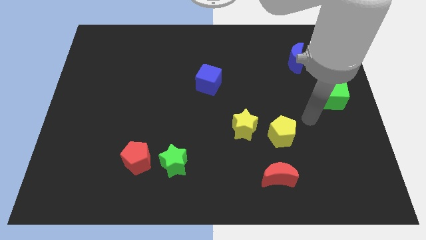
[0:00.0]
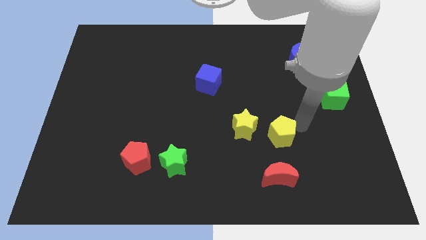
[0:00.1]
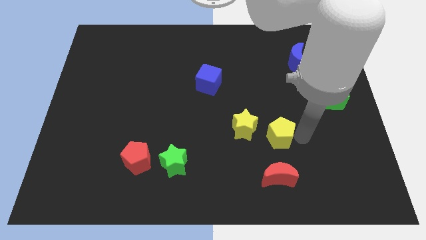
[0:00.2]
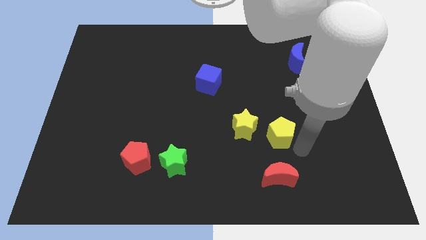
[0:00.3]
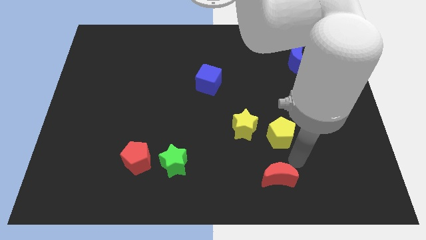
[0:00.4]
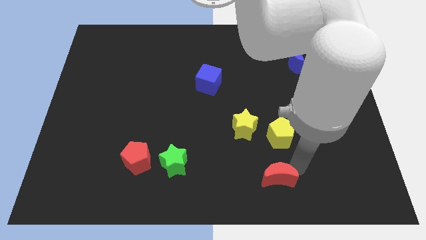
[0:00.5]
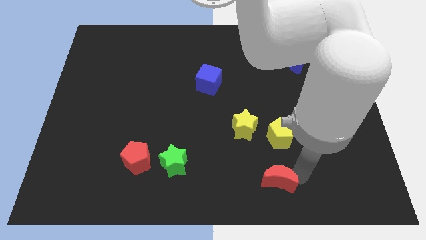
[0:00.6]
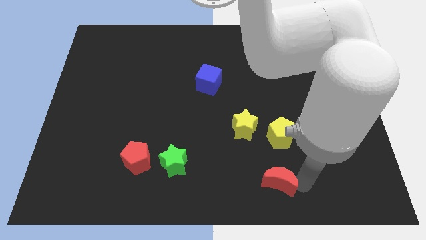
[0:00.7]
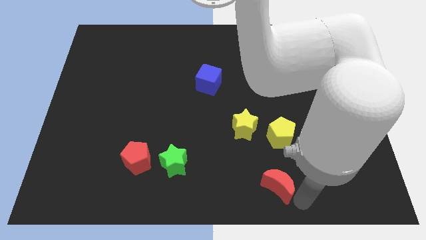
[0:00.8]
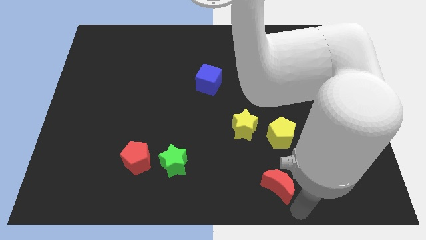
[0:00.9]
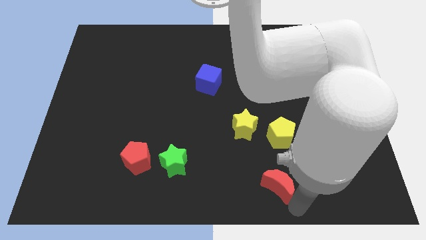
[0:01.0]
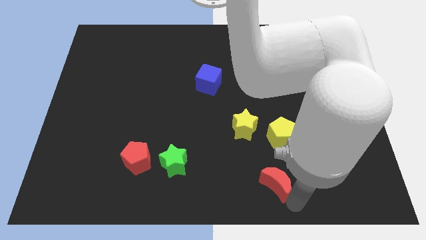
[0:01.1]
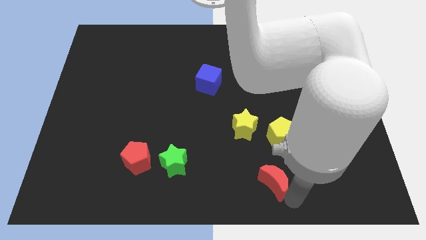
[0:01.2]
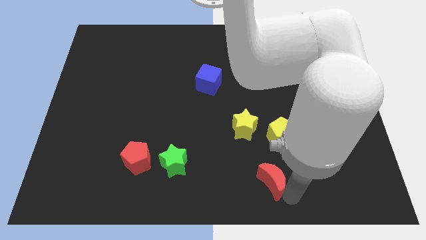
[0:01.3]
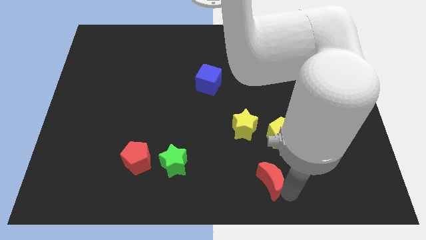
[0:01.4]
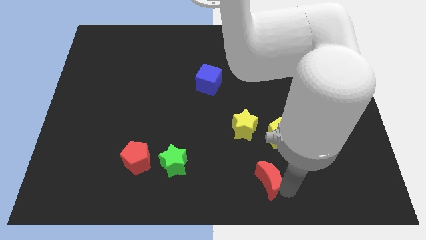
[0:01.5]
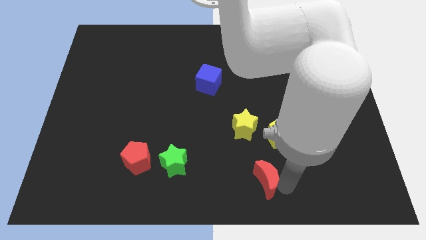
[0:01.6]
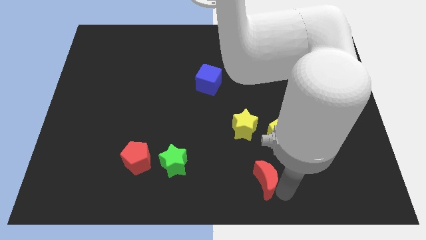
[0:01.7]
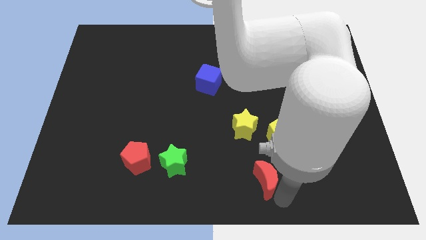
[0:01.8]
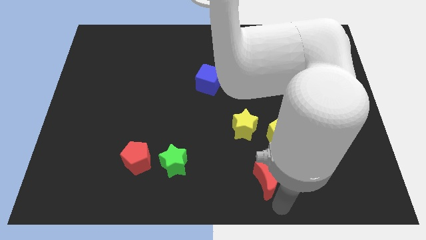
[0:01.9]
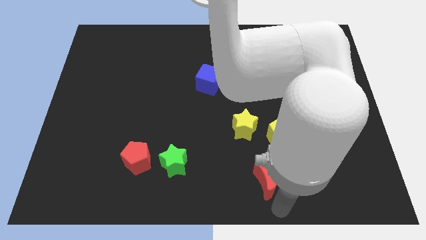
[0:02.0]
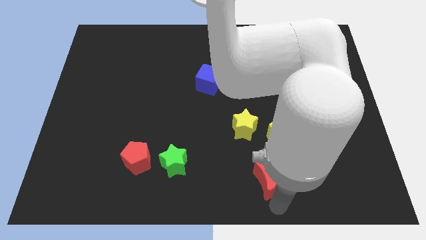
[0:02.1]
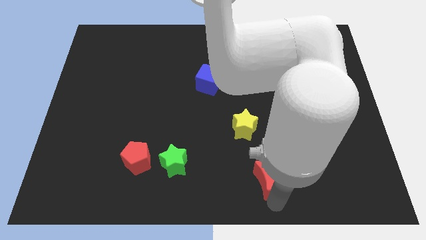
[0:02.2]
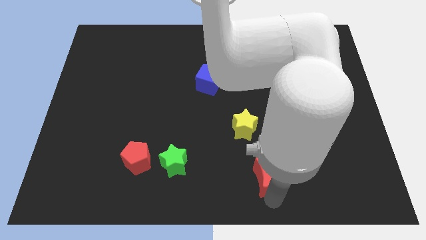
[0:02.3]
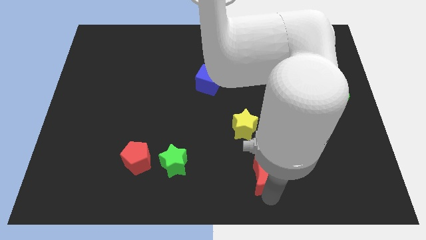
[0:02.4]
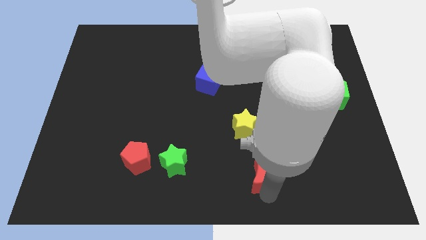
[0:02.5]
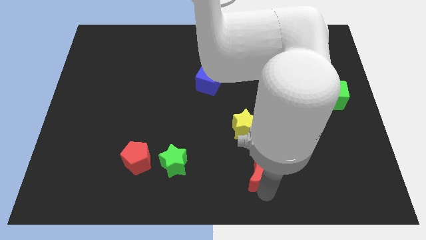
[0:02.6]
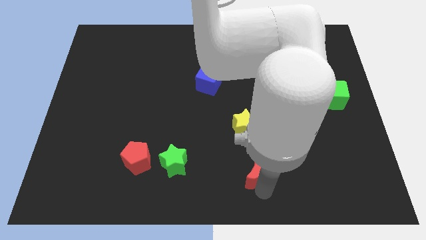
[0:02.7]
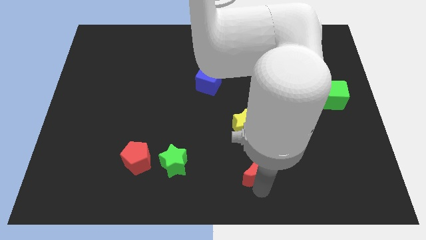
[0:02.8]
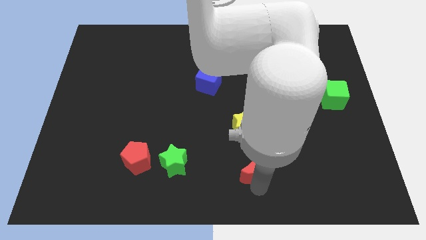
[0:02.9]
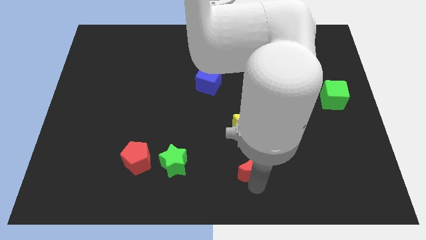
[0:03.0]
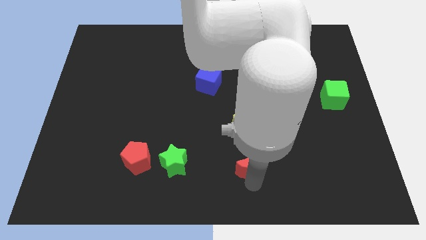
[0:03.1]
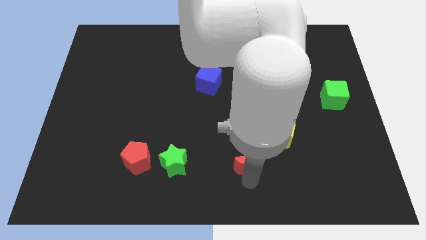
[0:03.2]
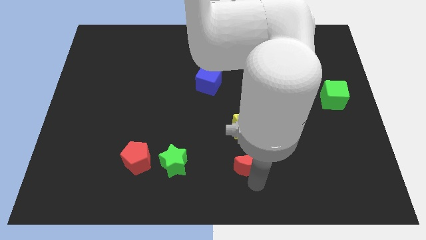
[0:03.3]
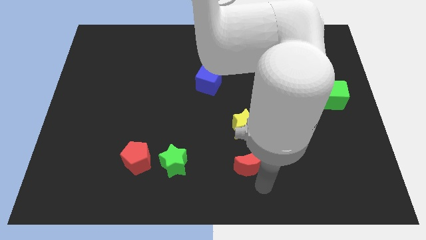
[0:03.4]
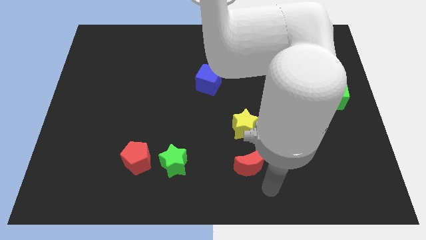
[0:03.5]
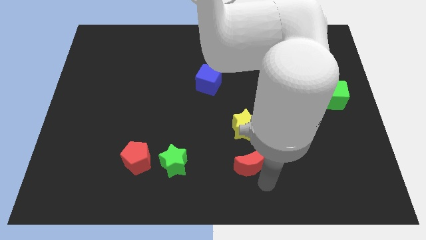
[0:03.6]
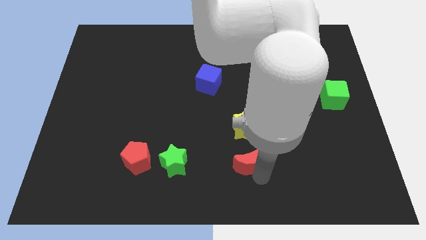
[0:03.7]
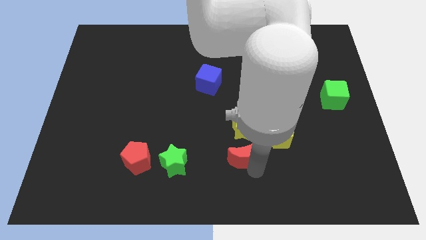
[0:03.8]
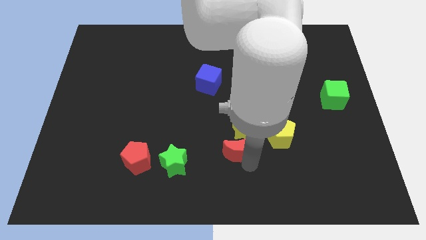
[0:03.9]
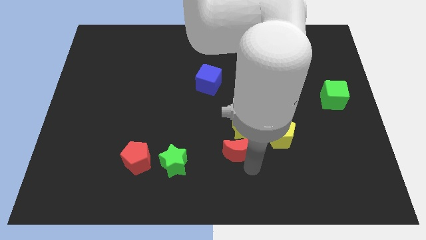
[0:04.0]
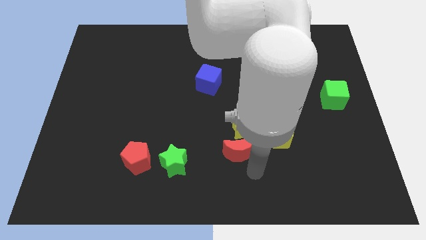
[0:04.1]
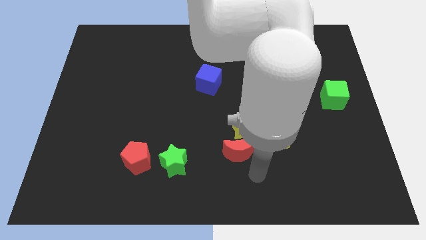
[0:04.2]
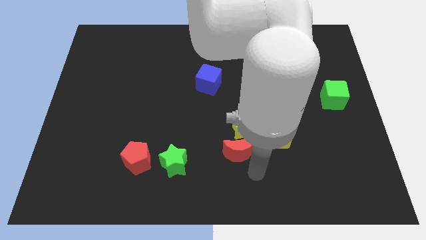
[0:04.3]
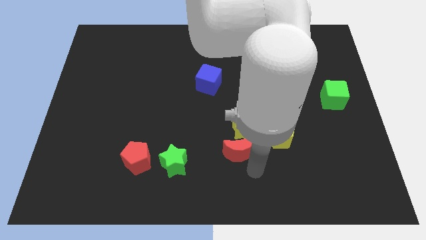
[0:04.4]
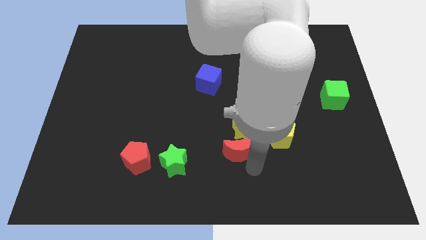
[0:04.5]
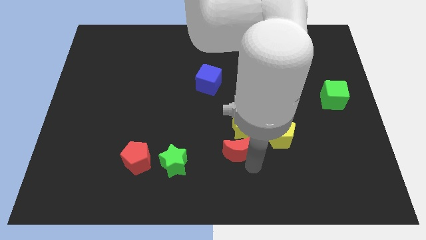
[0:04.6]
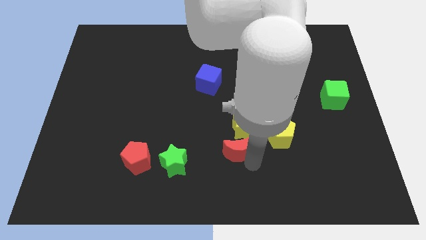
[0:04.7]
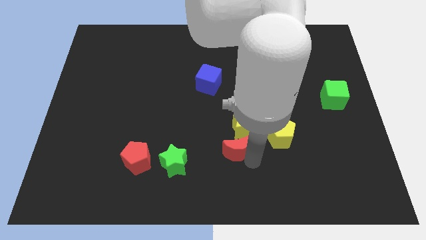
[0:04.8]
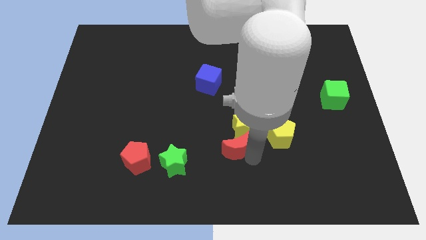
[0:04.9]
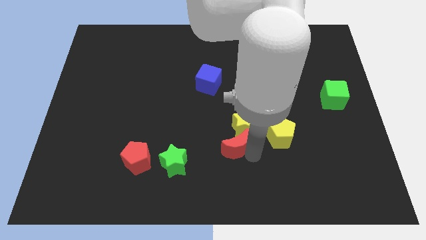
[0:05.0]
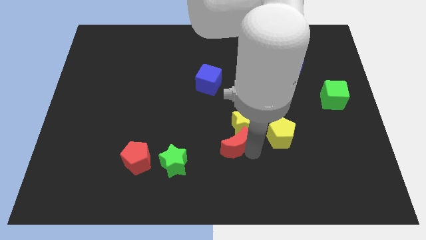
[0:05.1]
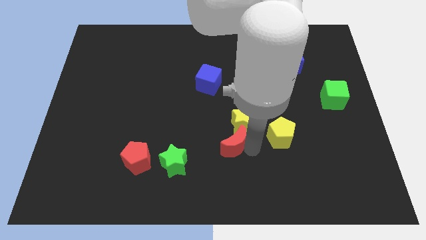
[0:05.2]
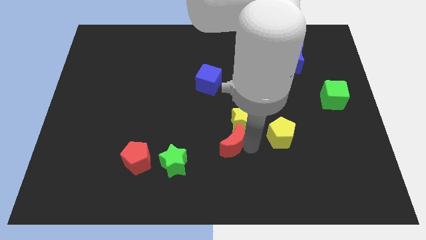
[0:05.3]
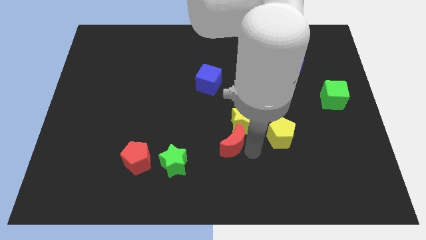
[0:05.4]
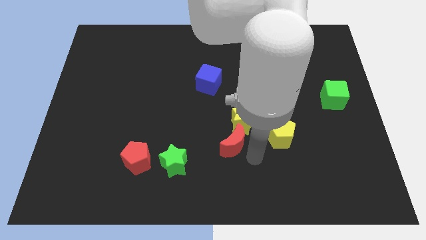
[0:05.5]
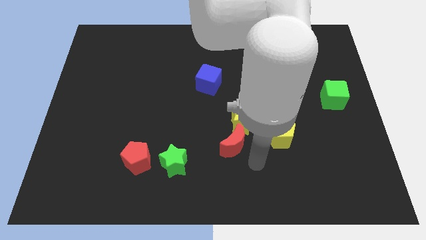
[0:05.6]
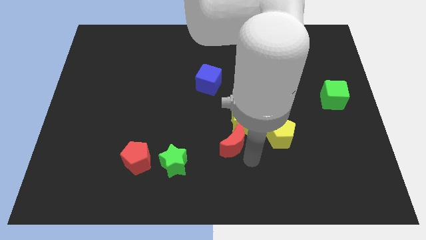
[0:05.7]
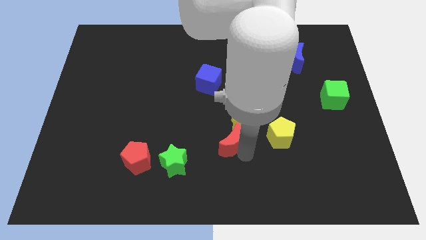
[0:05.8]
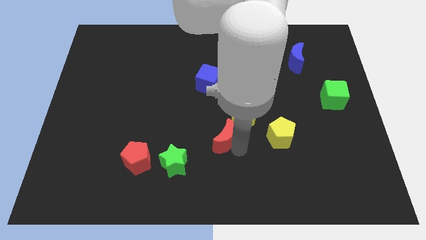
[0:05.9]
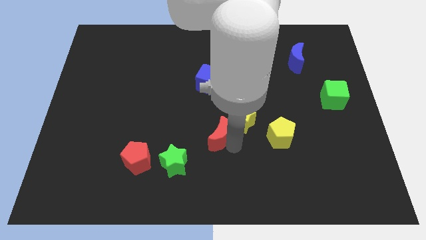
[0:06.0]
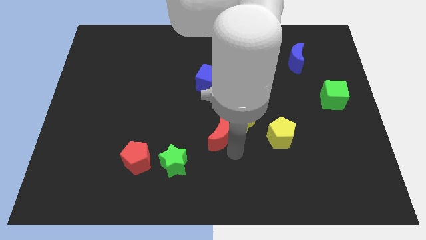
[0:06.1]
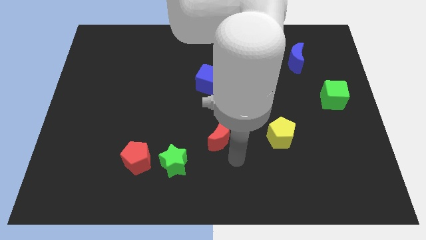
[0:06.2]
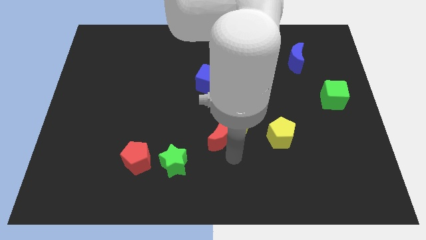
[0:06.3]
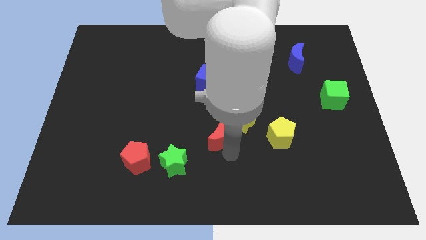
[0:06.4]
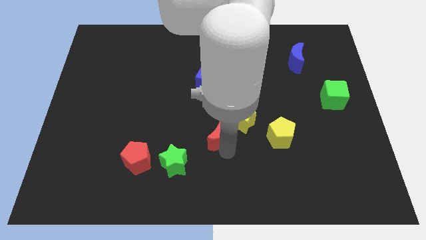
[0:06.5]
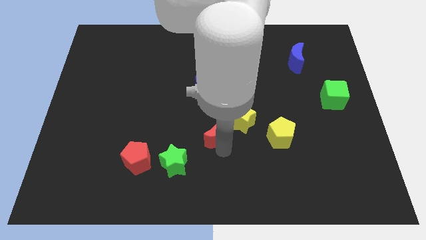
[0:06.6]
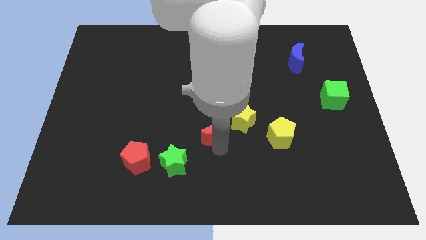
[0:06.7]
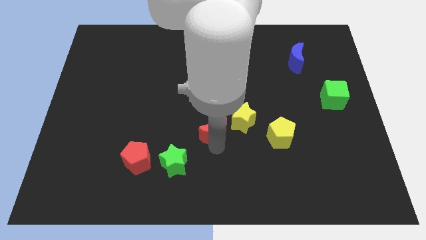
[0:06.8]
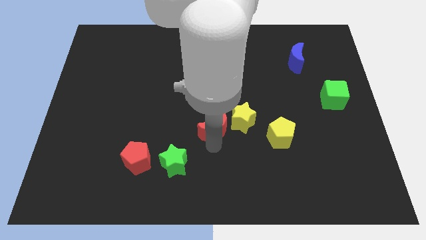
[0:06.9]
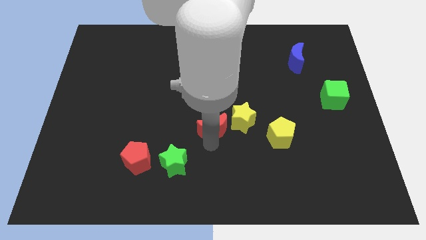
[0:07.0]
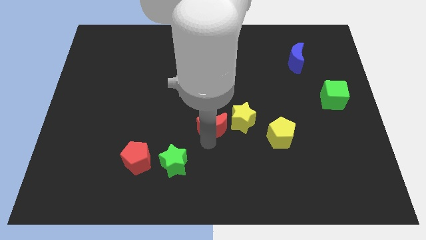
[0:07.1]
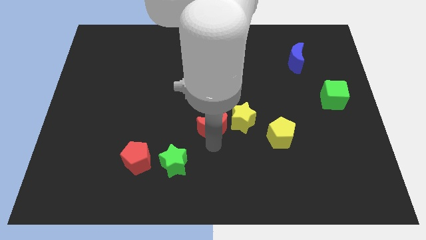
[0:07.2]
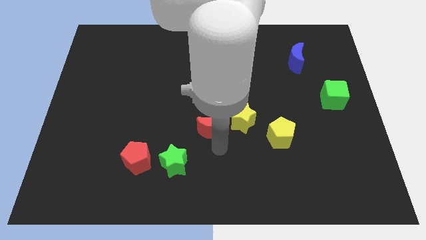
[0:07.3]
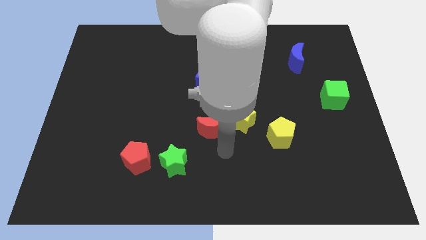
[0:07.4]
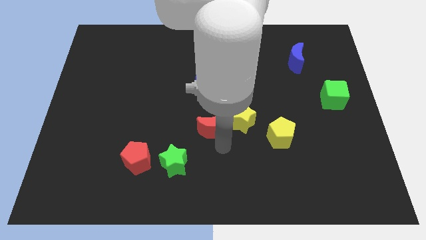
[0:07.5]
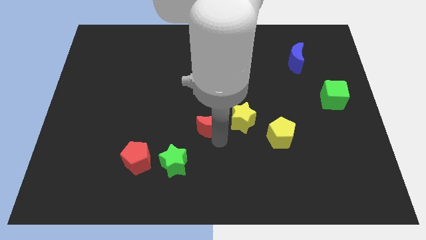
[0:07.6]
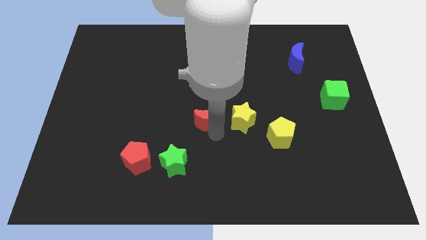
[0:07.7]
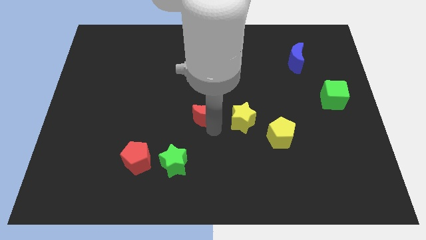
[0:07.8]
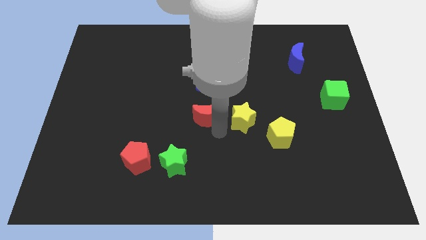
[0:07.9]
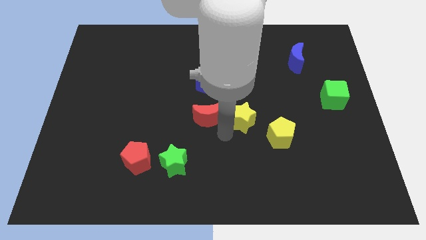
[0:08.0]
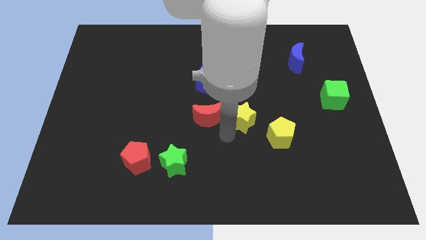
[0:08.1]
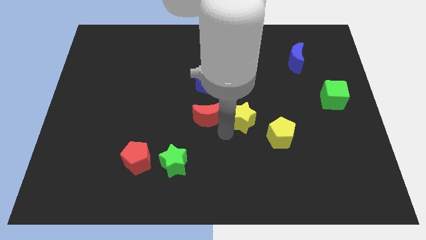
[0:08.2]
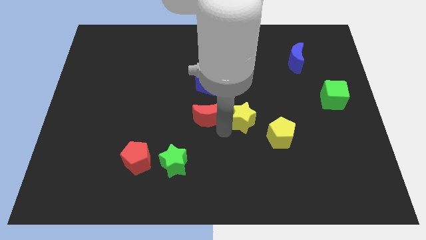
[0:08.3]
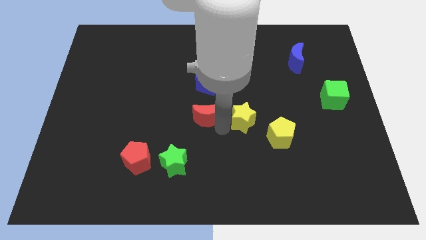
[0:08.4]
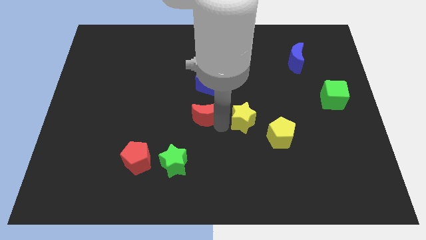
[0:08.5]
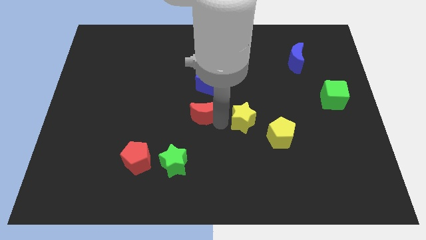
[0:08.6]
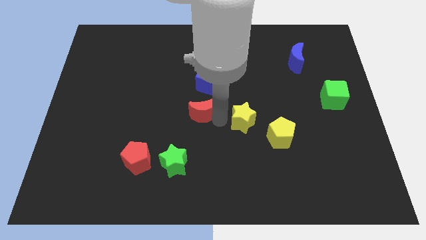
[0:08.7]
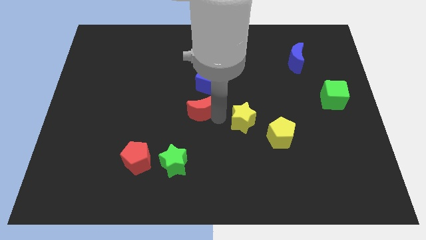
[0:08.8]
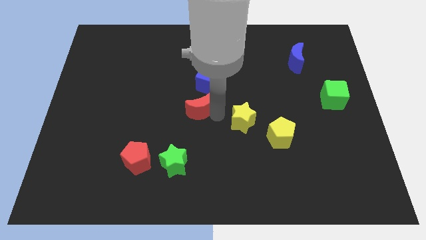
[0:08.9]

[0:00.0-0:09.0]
move the red moon diagonally down and to the left of the blue cube
